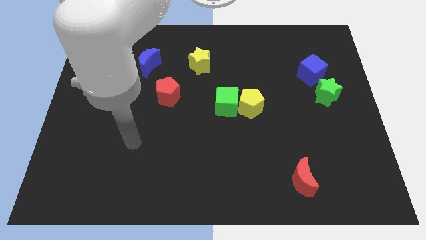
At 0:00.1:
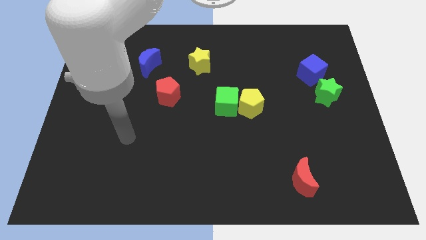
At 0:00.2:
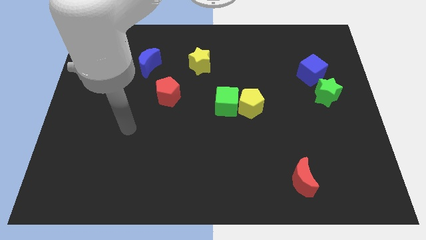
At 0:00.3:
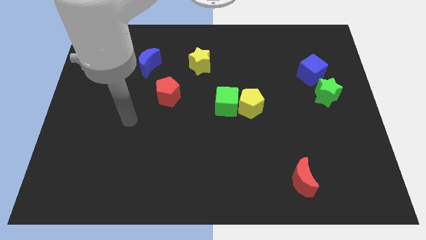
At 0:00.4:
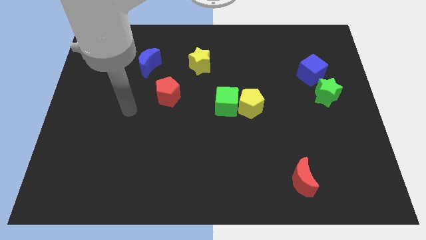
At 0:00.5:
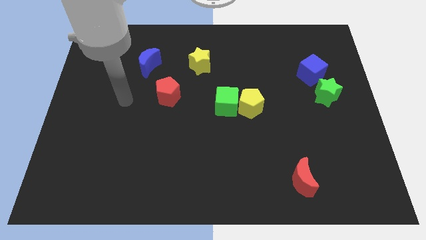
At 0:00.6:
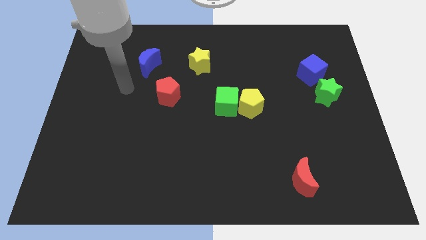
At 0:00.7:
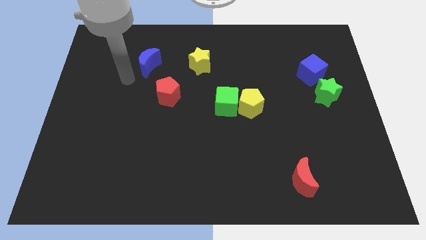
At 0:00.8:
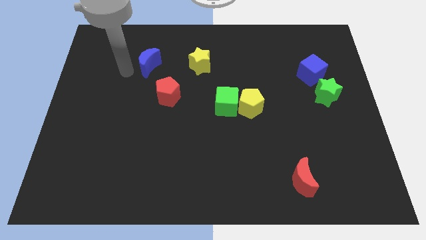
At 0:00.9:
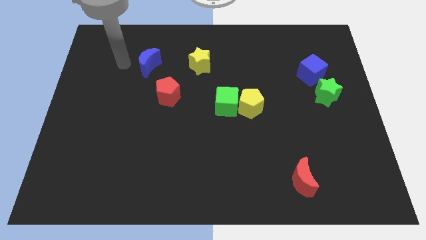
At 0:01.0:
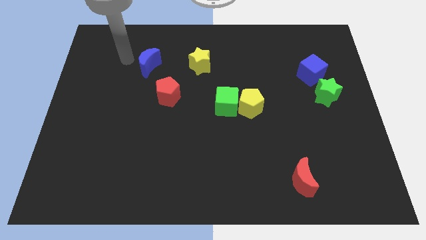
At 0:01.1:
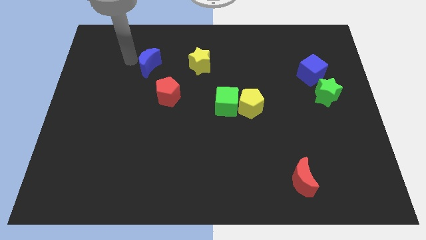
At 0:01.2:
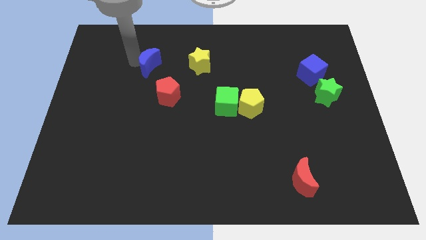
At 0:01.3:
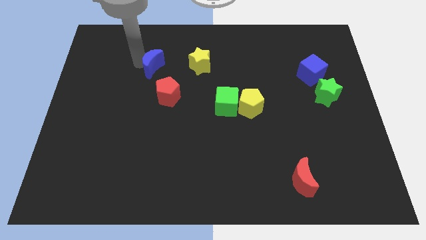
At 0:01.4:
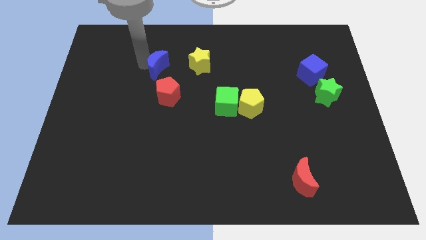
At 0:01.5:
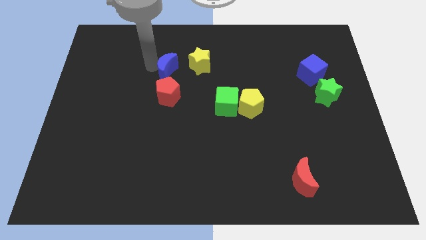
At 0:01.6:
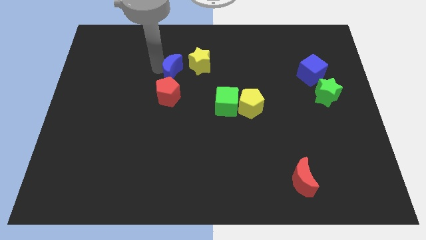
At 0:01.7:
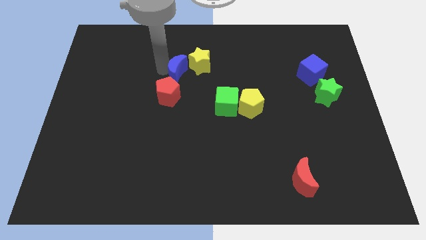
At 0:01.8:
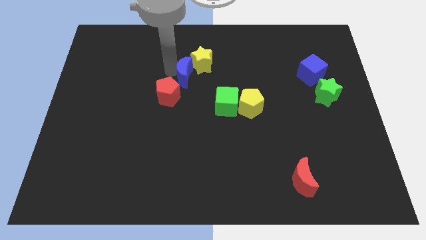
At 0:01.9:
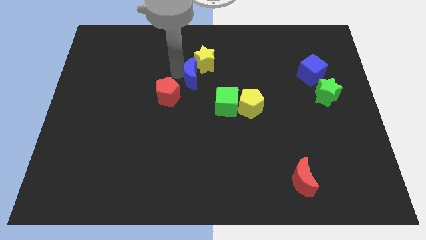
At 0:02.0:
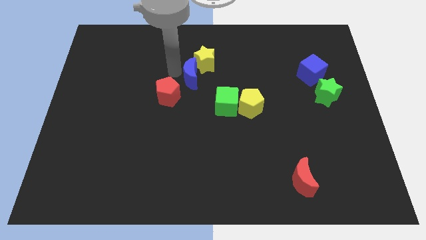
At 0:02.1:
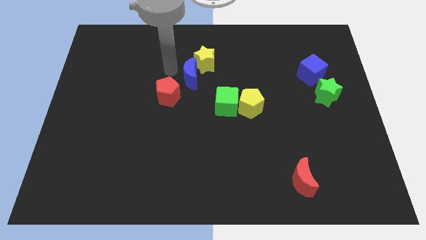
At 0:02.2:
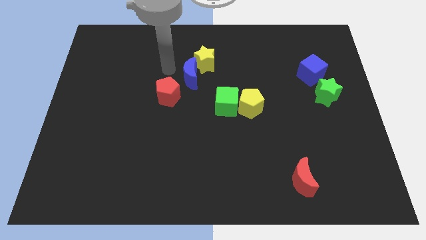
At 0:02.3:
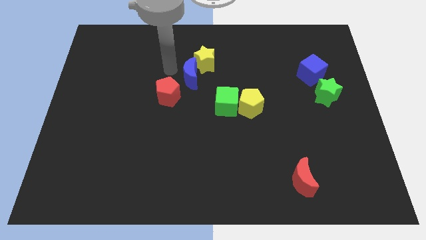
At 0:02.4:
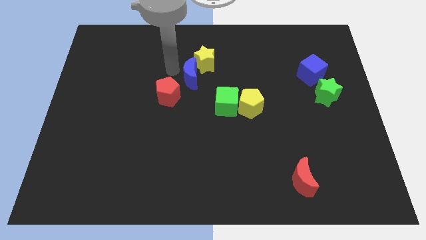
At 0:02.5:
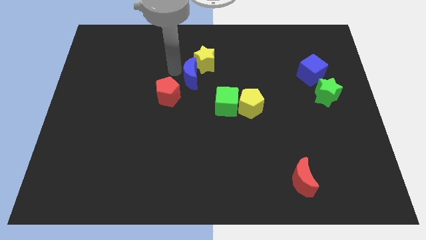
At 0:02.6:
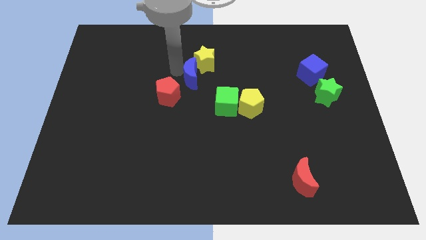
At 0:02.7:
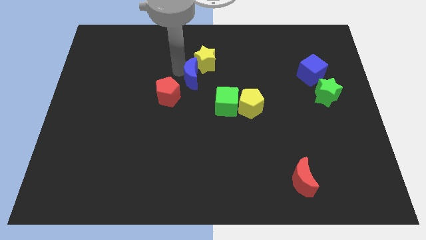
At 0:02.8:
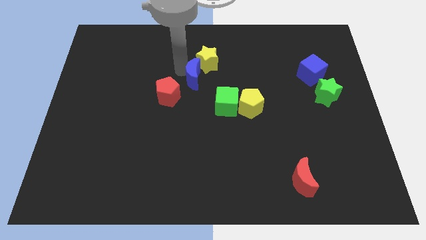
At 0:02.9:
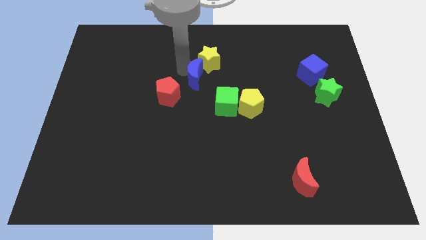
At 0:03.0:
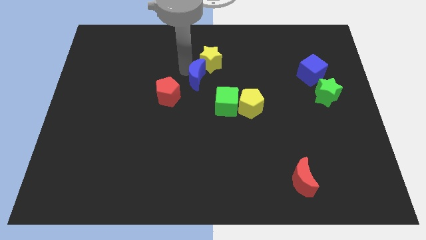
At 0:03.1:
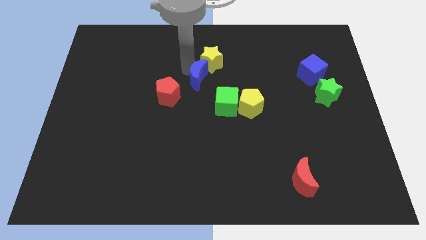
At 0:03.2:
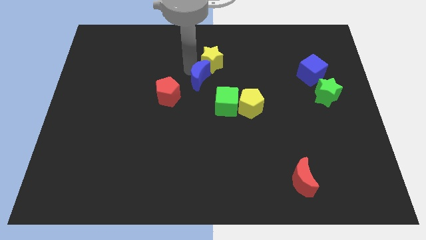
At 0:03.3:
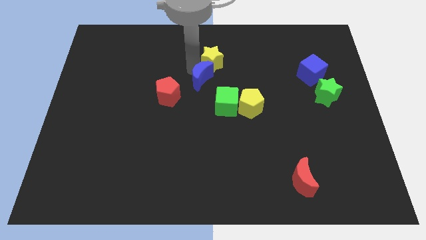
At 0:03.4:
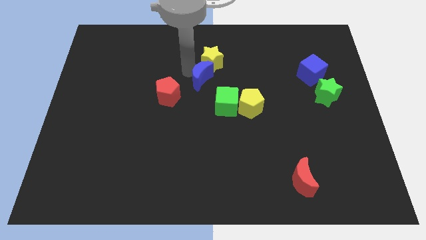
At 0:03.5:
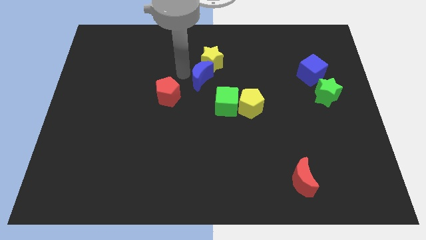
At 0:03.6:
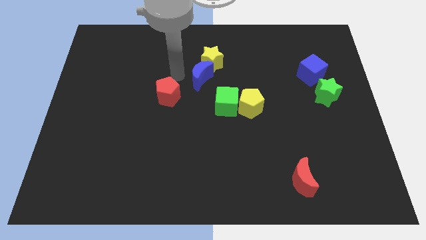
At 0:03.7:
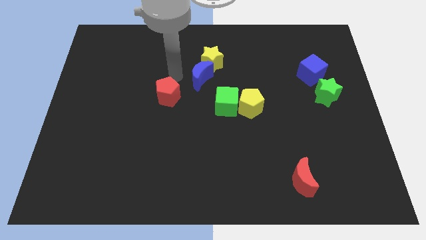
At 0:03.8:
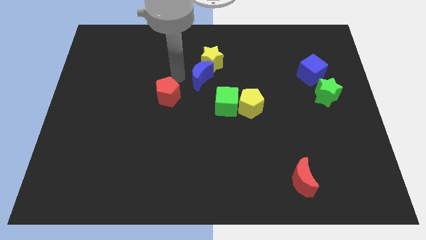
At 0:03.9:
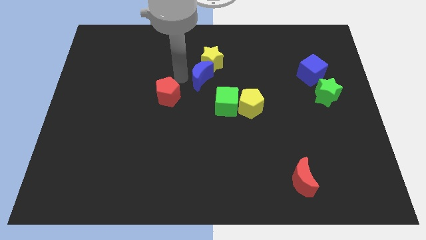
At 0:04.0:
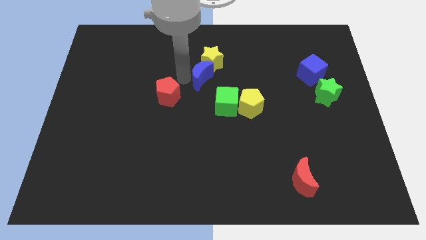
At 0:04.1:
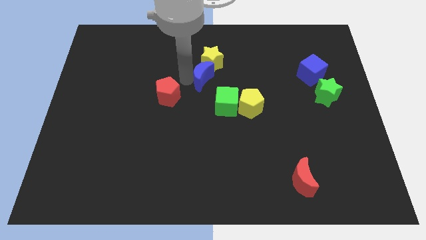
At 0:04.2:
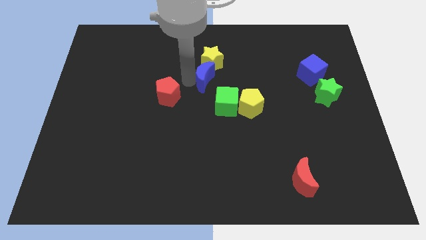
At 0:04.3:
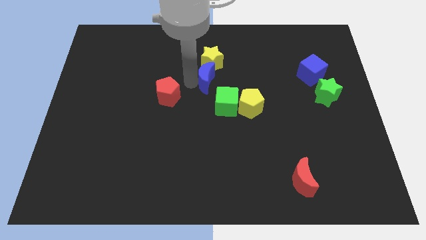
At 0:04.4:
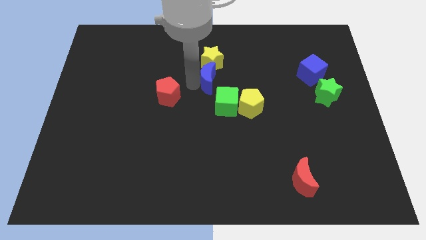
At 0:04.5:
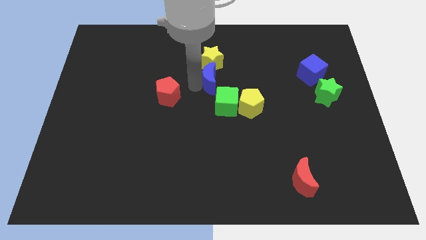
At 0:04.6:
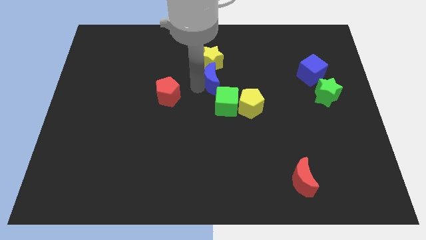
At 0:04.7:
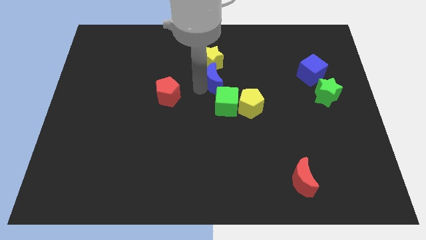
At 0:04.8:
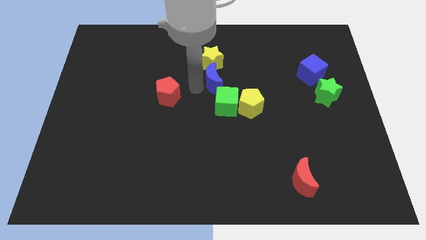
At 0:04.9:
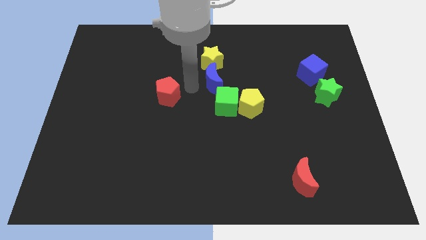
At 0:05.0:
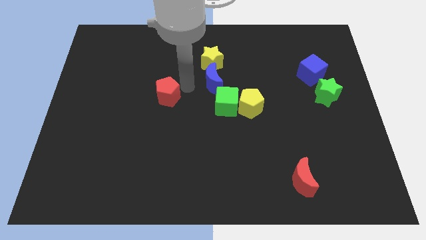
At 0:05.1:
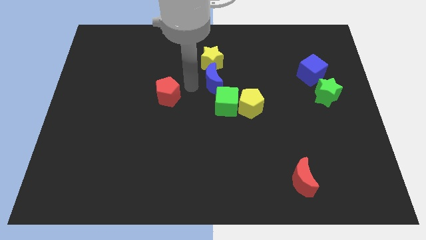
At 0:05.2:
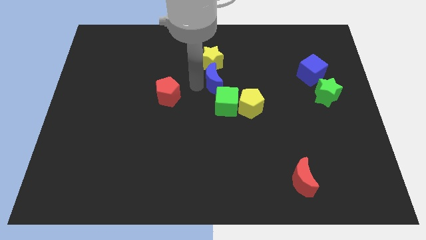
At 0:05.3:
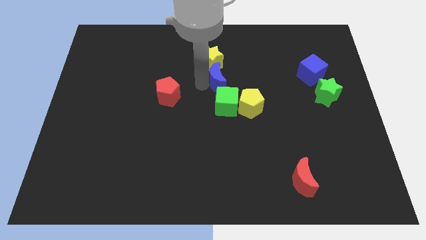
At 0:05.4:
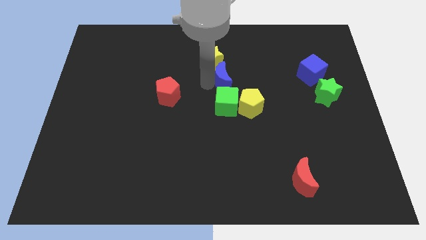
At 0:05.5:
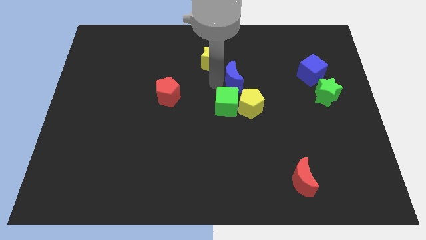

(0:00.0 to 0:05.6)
slide the blue moon right

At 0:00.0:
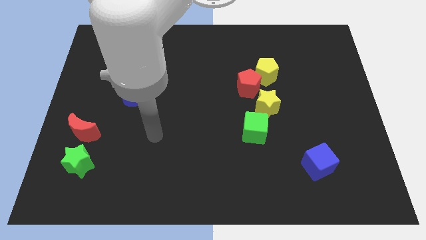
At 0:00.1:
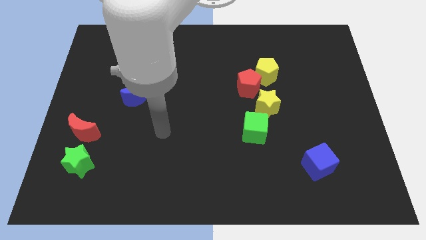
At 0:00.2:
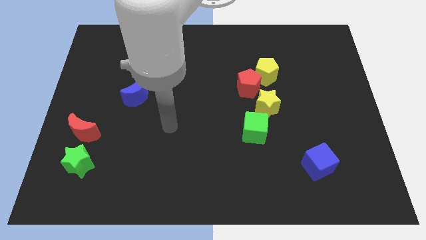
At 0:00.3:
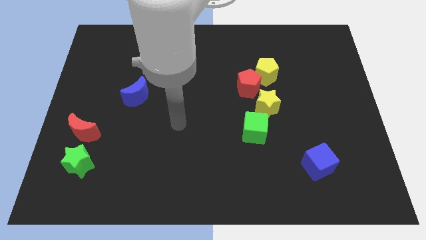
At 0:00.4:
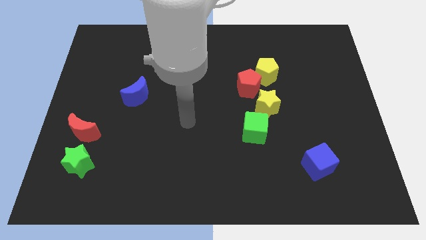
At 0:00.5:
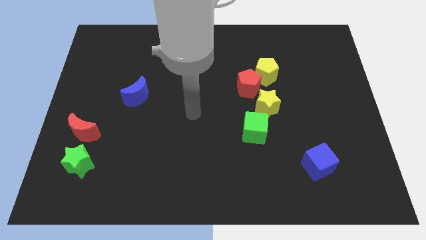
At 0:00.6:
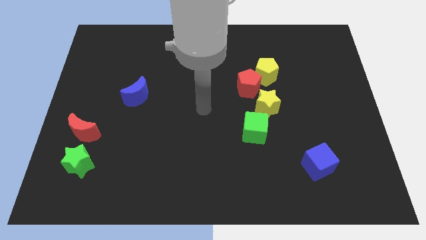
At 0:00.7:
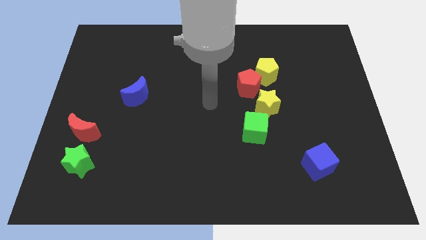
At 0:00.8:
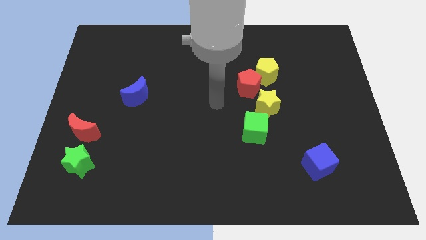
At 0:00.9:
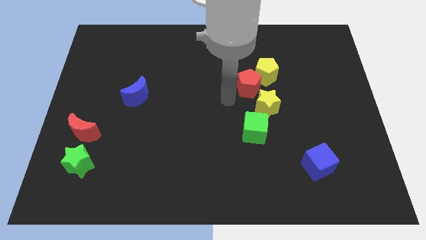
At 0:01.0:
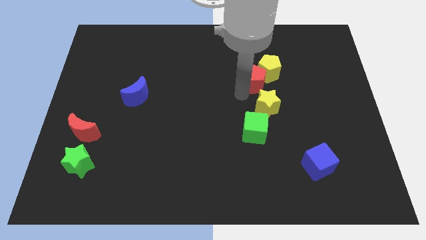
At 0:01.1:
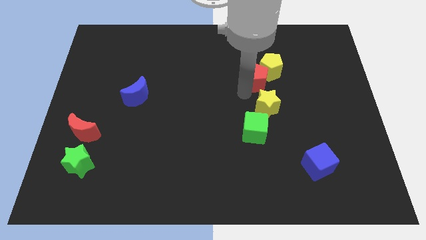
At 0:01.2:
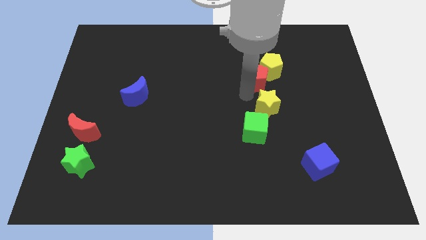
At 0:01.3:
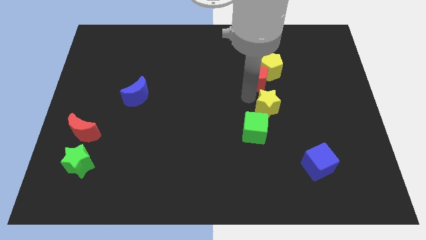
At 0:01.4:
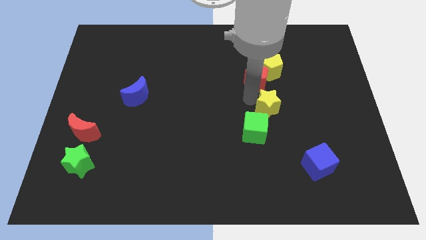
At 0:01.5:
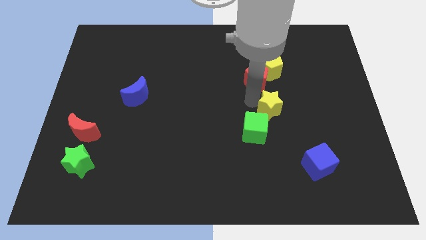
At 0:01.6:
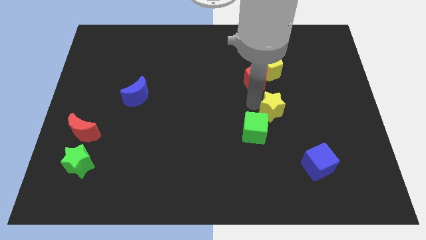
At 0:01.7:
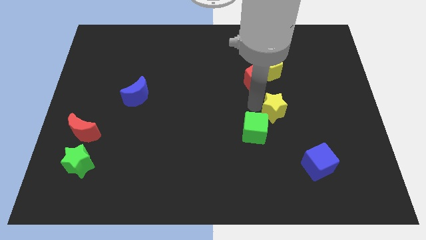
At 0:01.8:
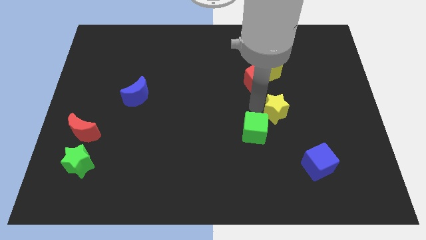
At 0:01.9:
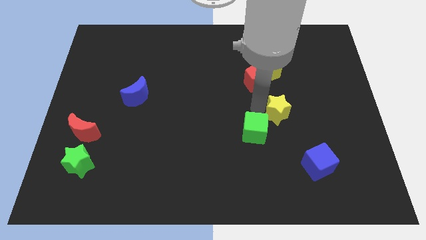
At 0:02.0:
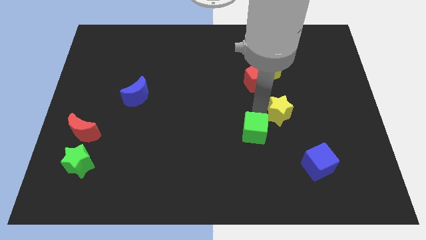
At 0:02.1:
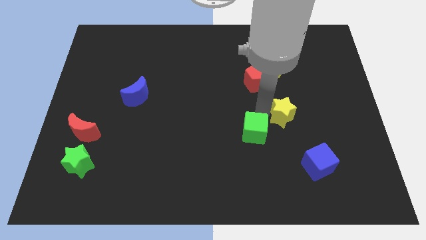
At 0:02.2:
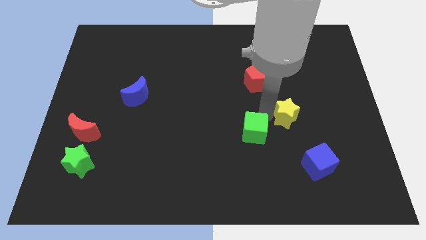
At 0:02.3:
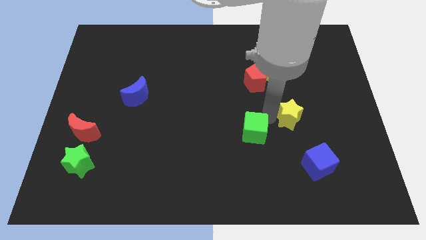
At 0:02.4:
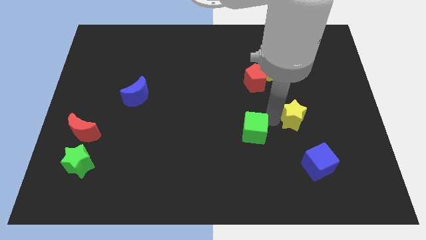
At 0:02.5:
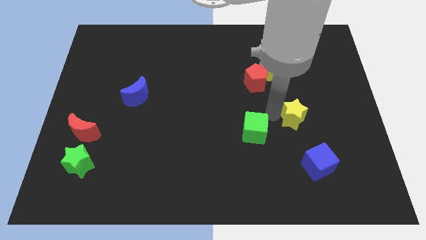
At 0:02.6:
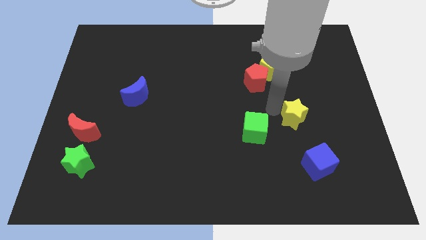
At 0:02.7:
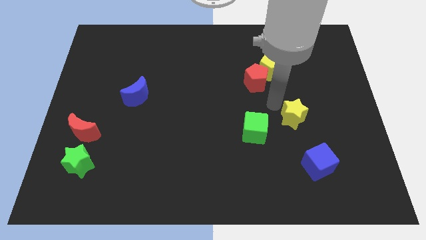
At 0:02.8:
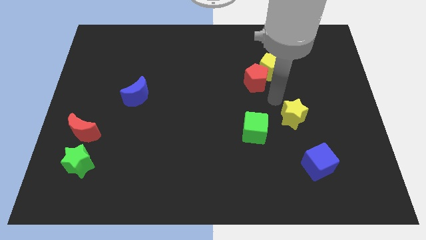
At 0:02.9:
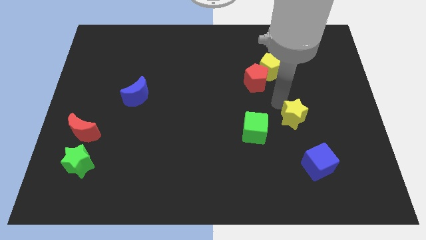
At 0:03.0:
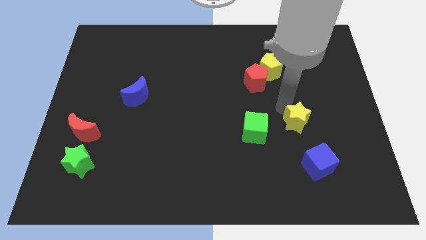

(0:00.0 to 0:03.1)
move the yellow star downwards and right diagonally slightly
